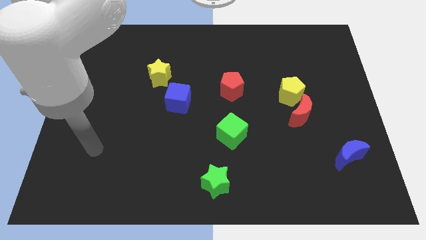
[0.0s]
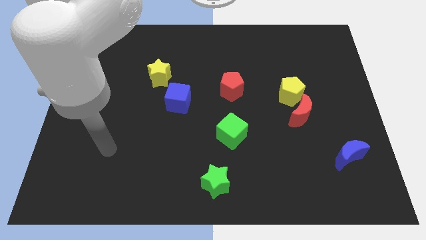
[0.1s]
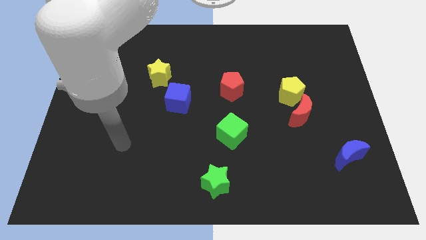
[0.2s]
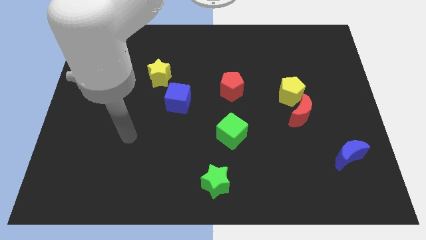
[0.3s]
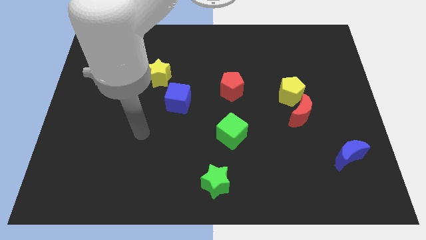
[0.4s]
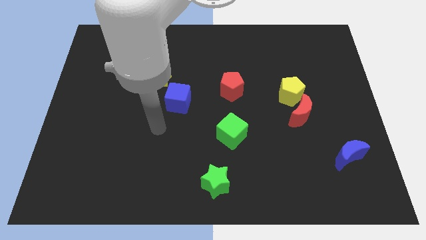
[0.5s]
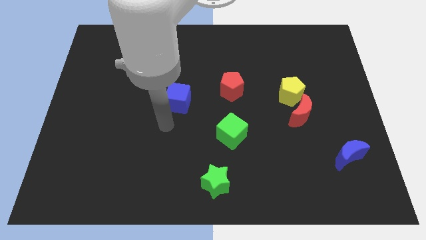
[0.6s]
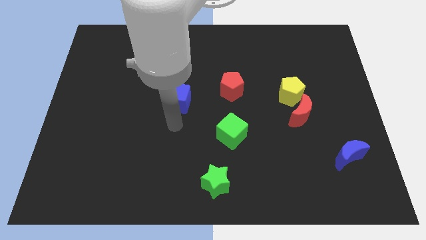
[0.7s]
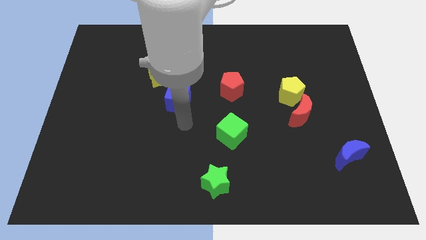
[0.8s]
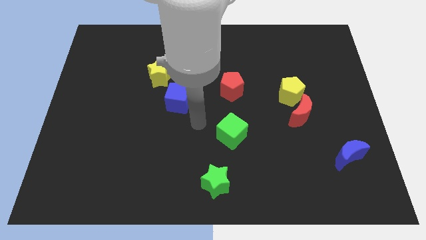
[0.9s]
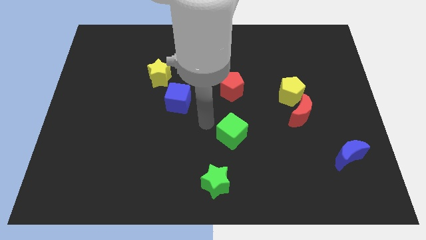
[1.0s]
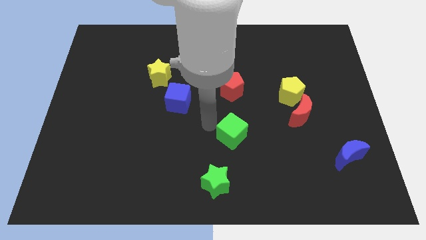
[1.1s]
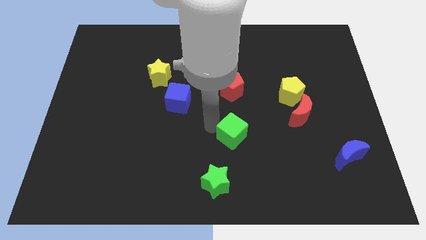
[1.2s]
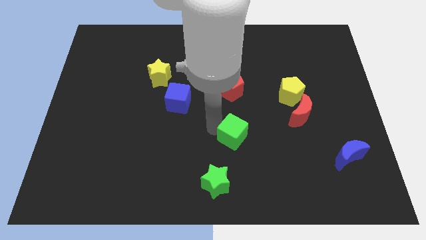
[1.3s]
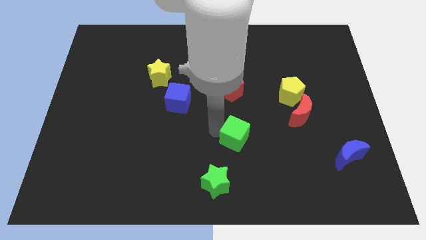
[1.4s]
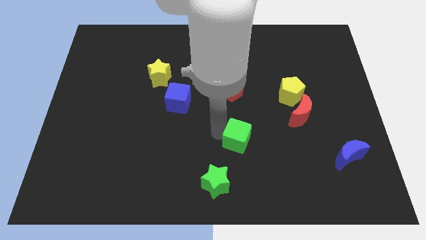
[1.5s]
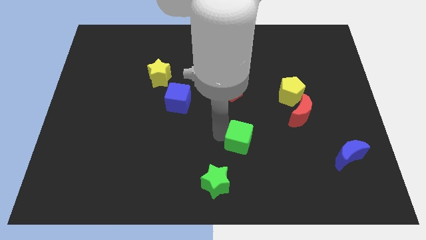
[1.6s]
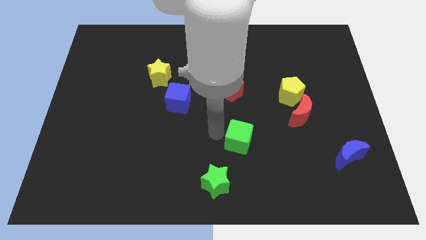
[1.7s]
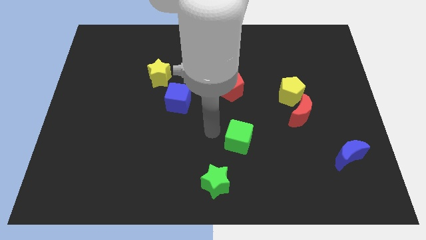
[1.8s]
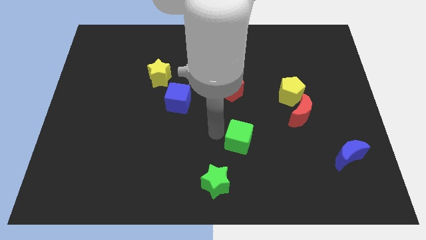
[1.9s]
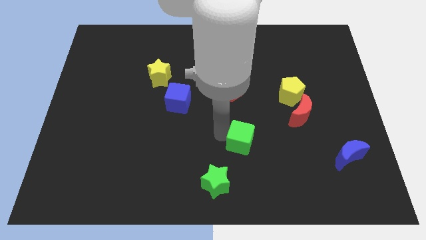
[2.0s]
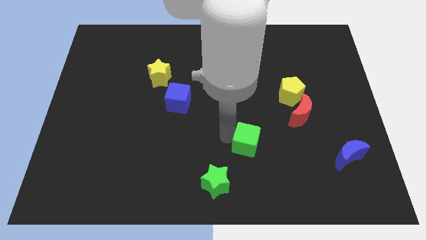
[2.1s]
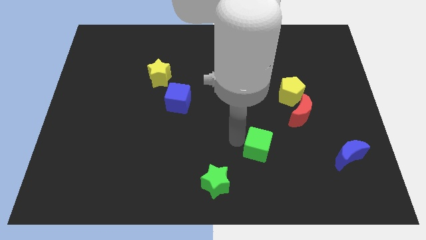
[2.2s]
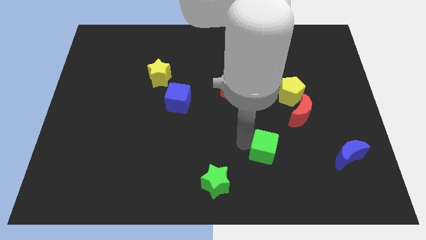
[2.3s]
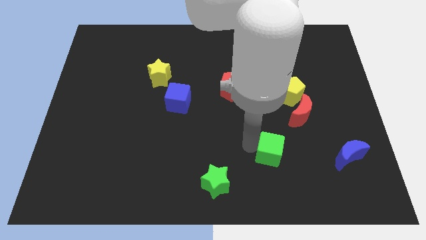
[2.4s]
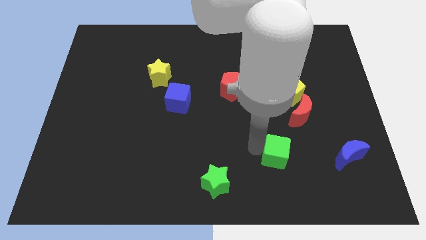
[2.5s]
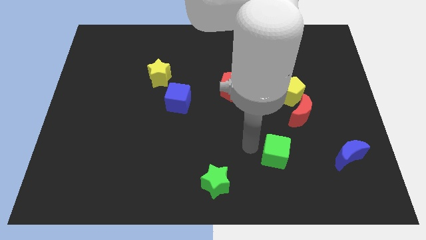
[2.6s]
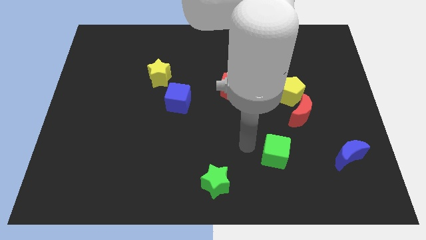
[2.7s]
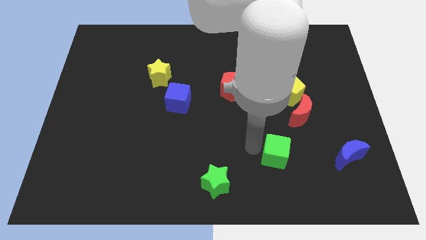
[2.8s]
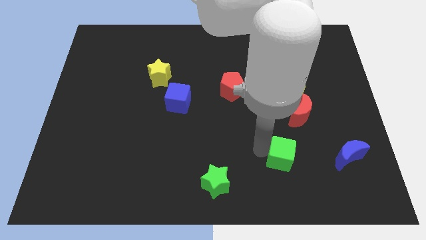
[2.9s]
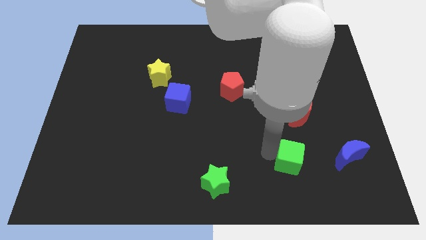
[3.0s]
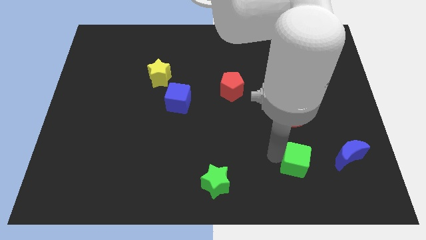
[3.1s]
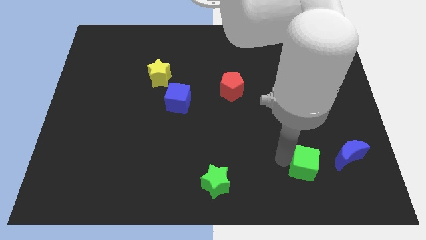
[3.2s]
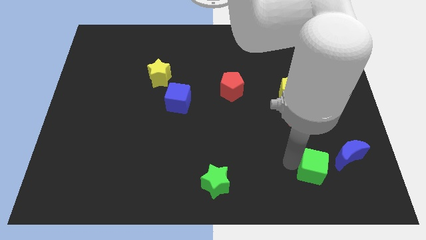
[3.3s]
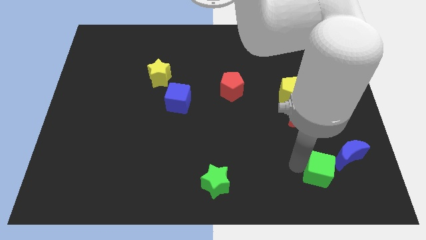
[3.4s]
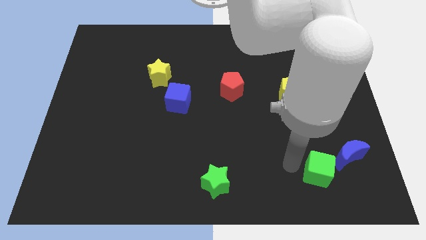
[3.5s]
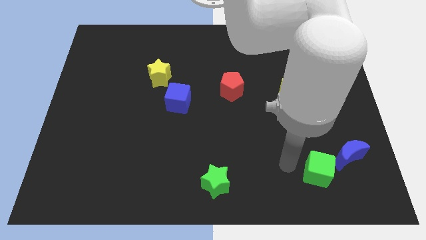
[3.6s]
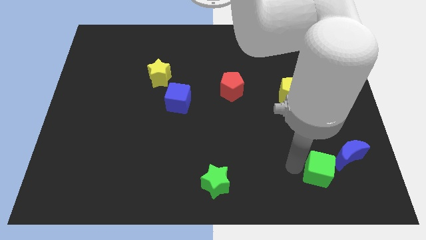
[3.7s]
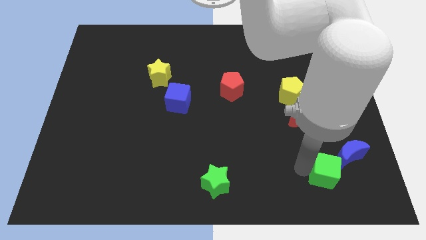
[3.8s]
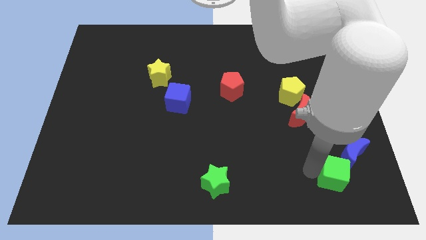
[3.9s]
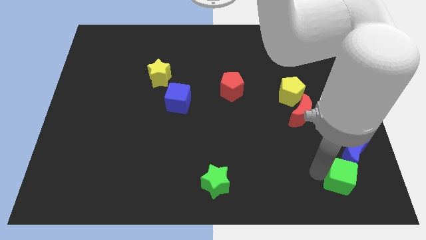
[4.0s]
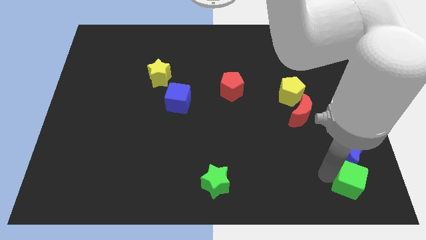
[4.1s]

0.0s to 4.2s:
push the green cube to the bottom right

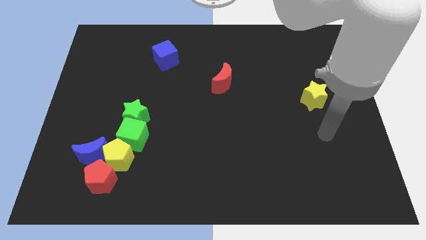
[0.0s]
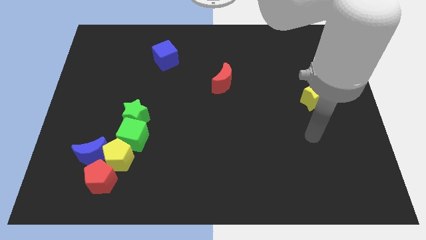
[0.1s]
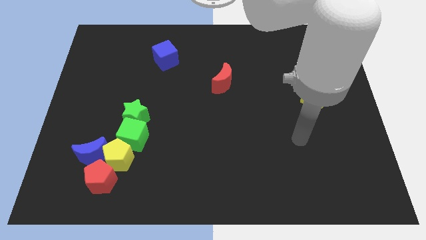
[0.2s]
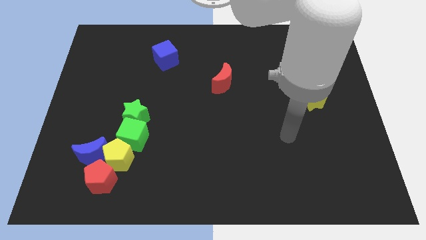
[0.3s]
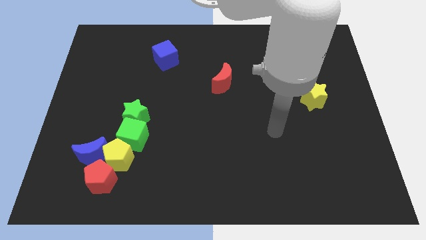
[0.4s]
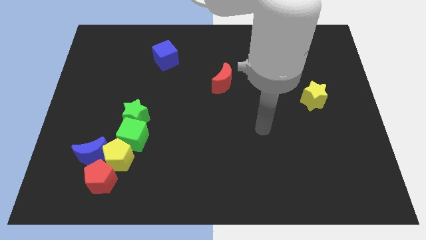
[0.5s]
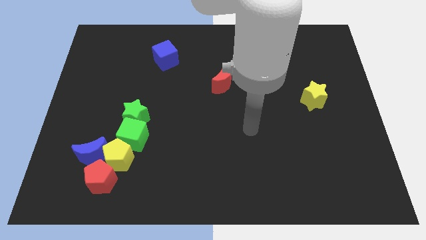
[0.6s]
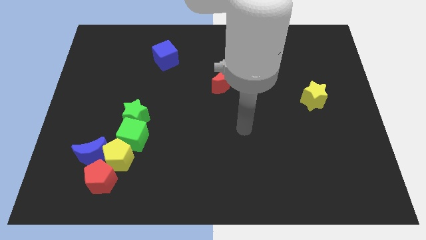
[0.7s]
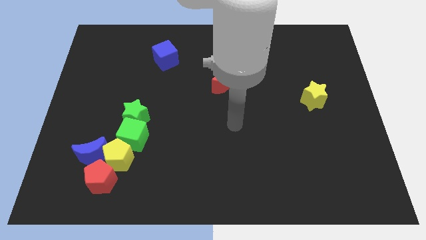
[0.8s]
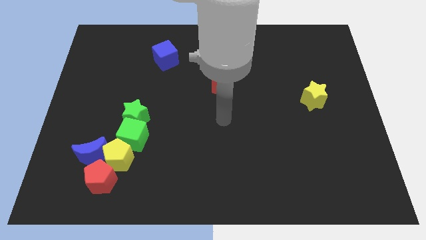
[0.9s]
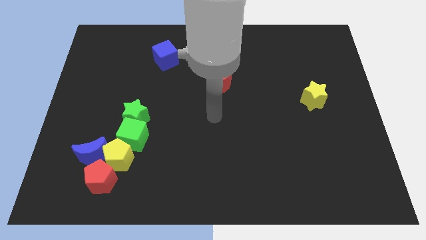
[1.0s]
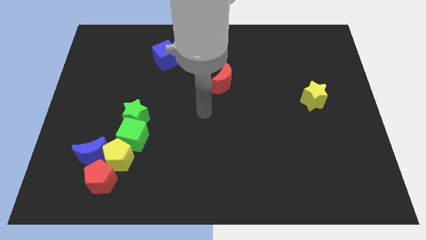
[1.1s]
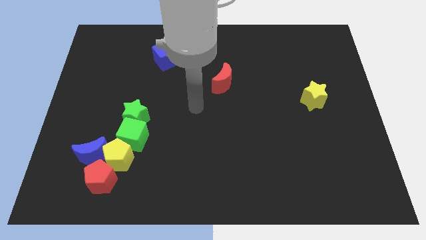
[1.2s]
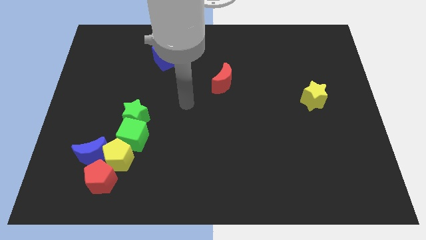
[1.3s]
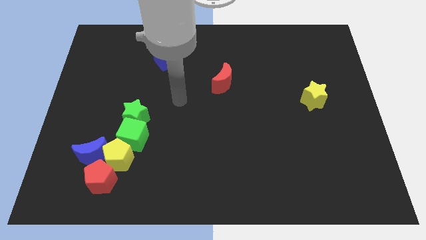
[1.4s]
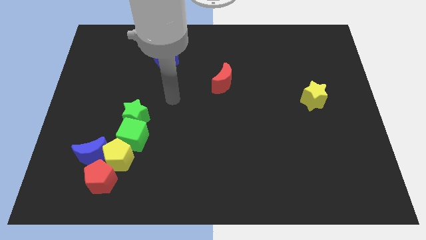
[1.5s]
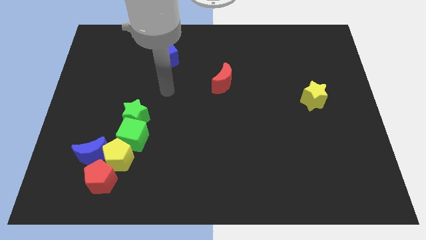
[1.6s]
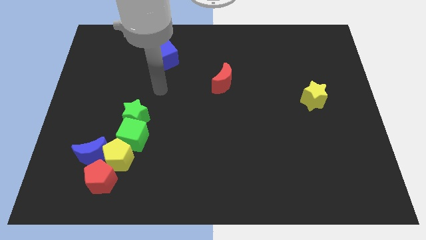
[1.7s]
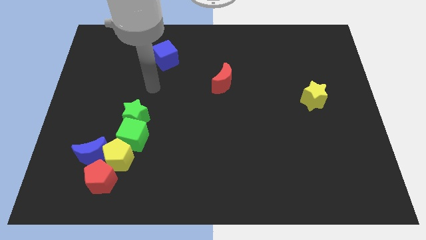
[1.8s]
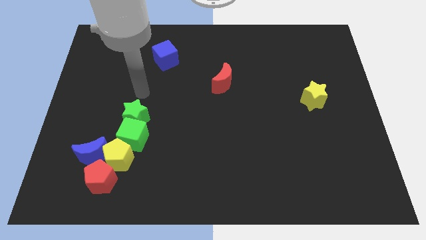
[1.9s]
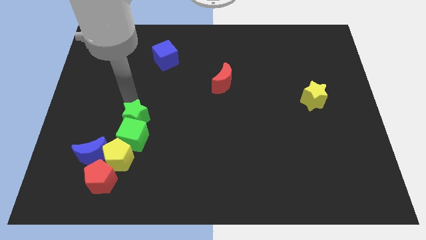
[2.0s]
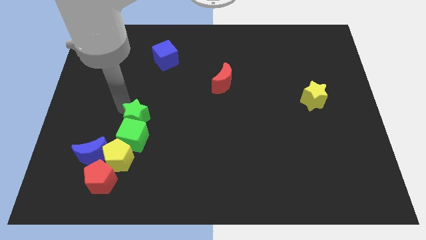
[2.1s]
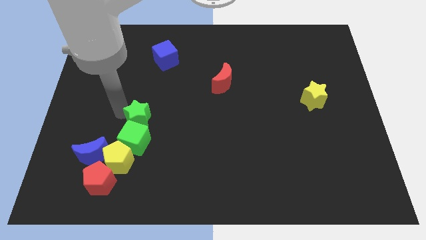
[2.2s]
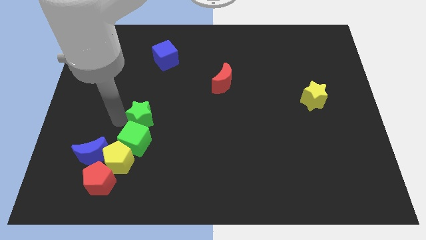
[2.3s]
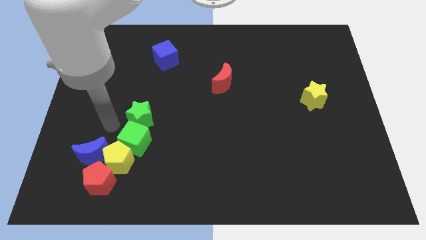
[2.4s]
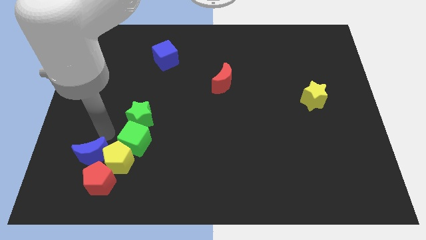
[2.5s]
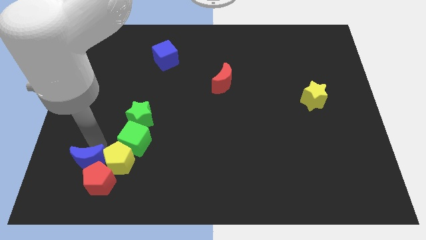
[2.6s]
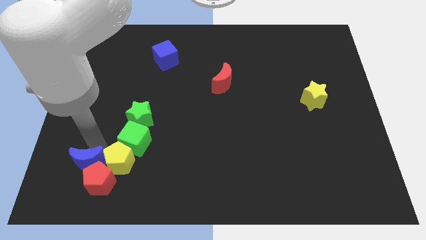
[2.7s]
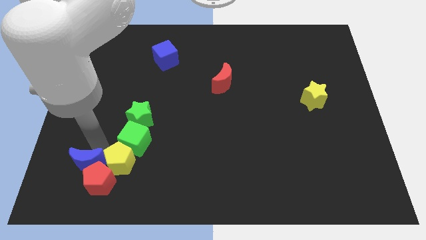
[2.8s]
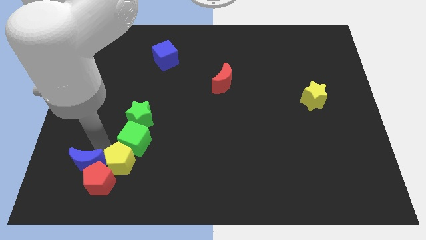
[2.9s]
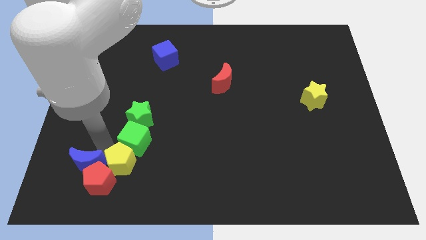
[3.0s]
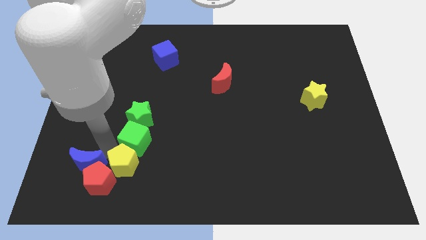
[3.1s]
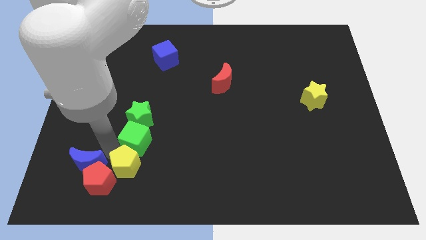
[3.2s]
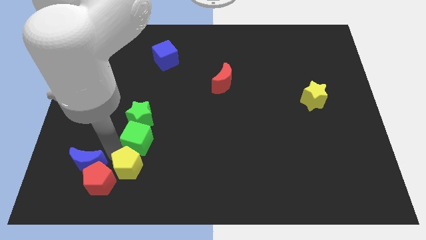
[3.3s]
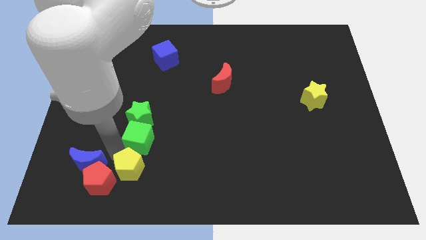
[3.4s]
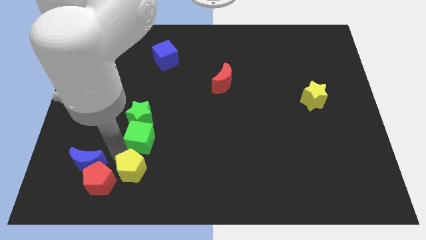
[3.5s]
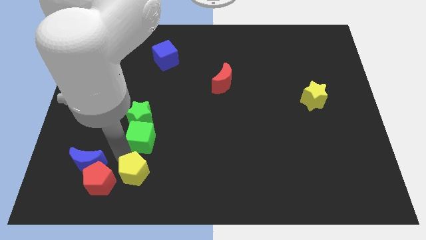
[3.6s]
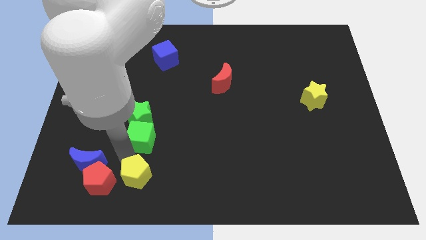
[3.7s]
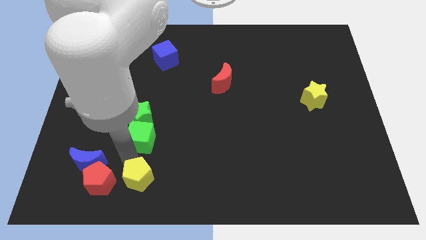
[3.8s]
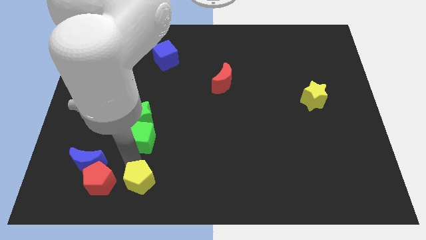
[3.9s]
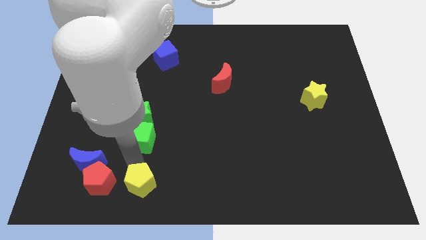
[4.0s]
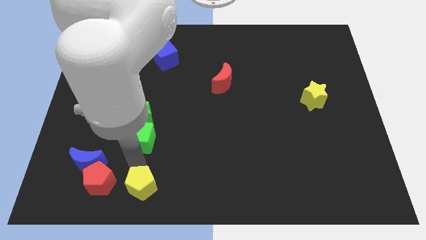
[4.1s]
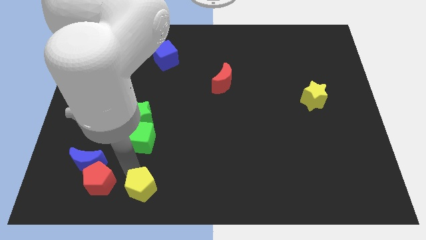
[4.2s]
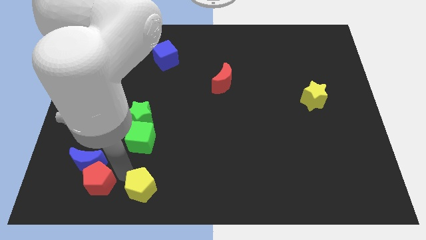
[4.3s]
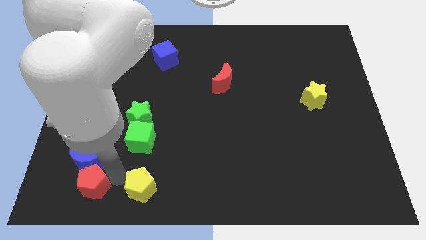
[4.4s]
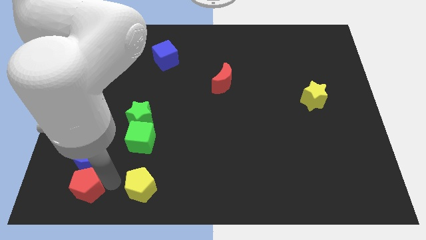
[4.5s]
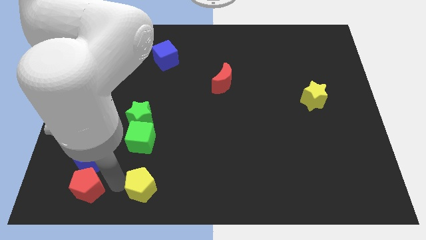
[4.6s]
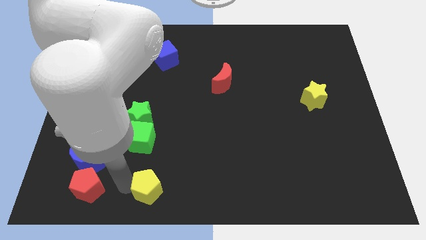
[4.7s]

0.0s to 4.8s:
slide the yellow pentagon to the bottom
